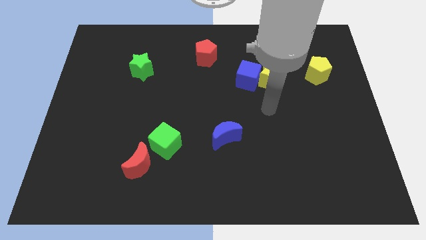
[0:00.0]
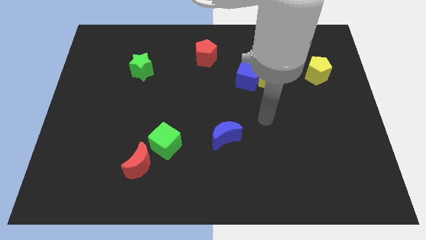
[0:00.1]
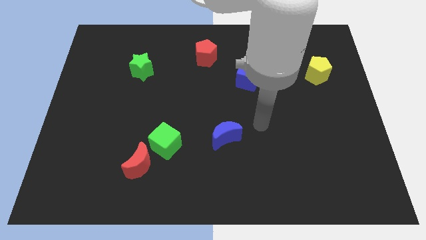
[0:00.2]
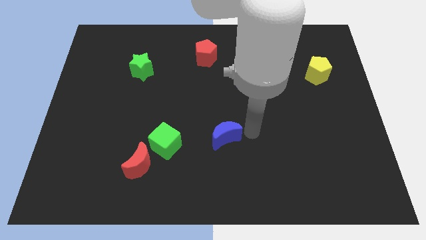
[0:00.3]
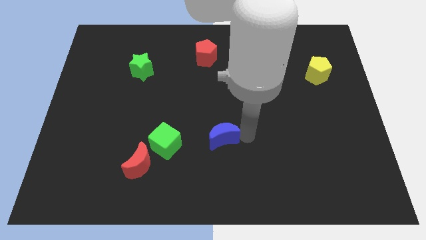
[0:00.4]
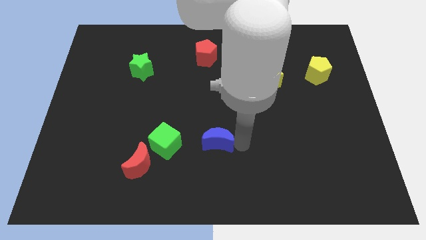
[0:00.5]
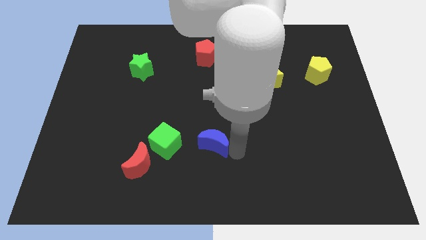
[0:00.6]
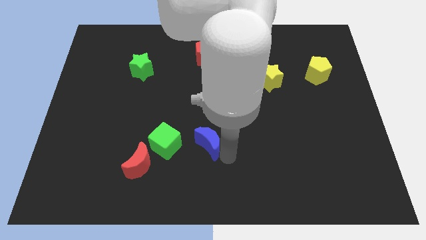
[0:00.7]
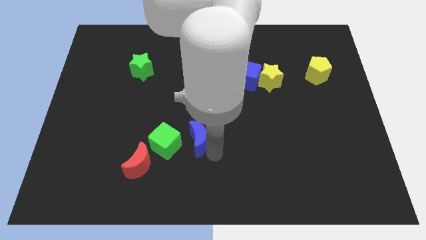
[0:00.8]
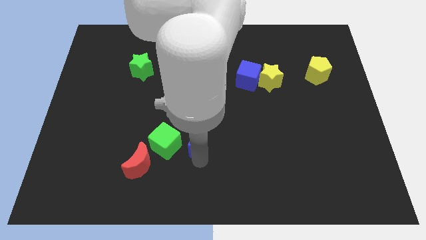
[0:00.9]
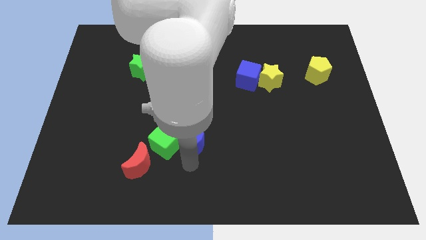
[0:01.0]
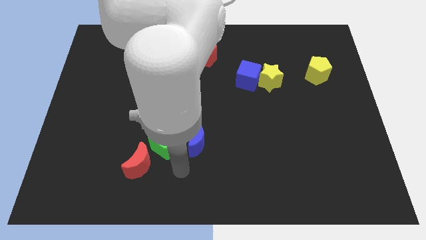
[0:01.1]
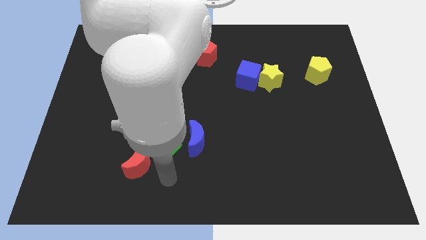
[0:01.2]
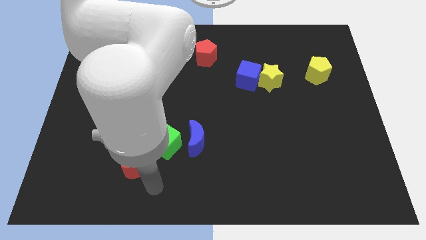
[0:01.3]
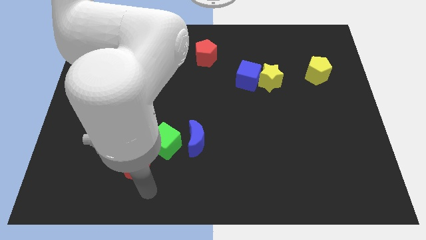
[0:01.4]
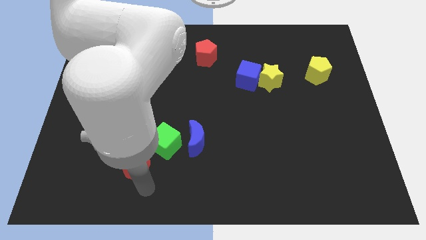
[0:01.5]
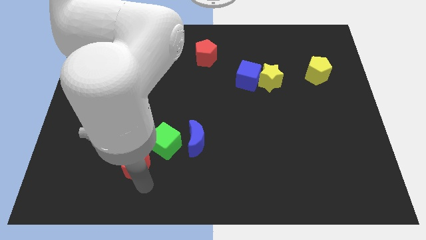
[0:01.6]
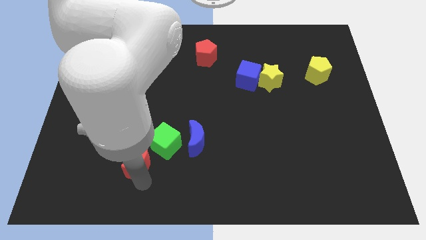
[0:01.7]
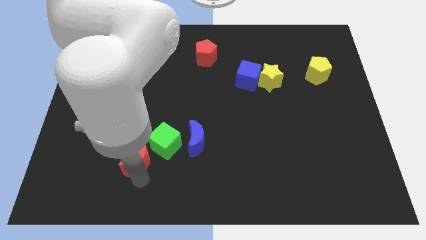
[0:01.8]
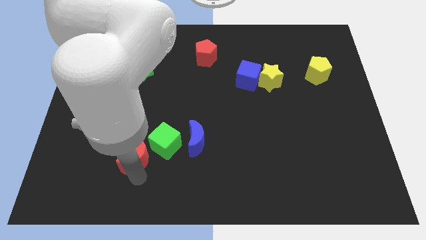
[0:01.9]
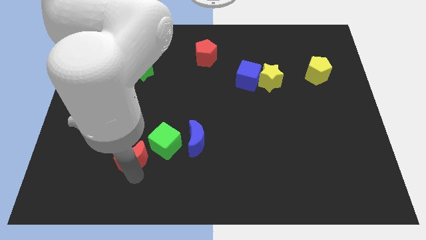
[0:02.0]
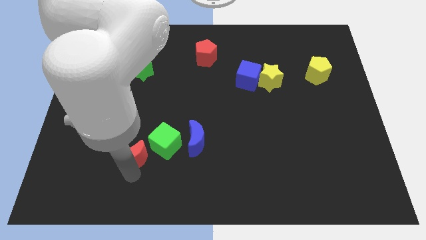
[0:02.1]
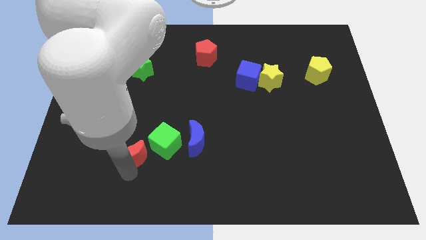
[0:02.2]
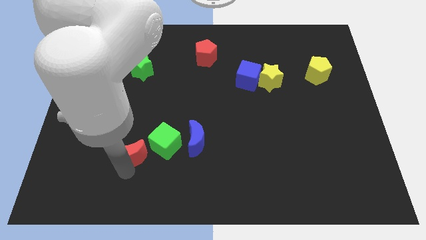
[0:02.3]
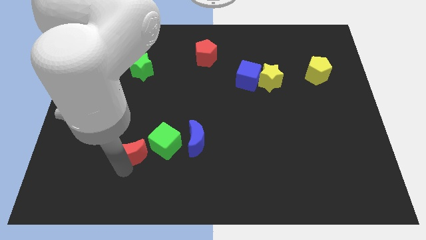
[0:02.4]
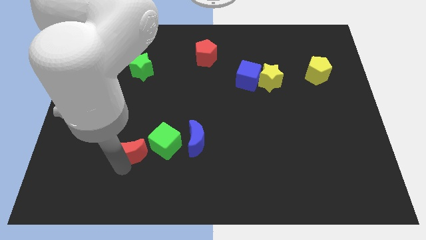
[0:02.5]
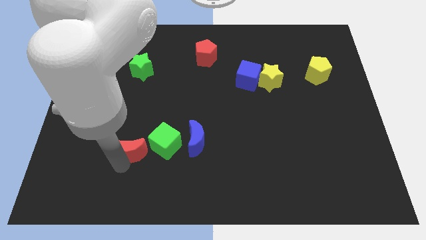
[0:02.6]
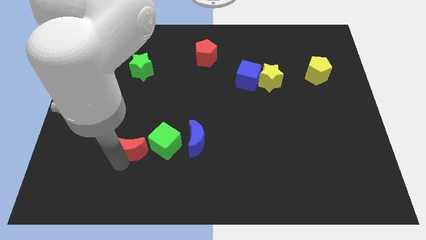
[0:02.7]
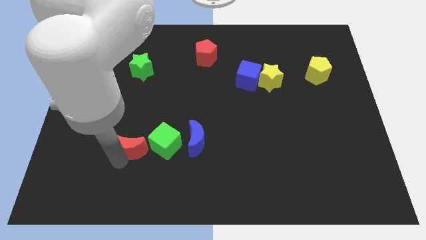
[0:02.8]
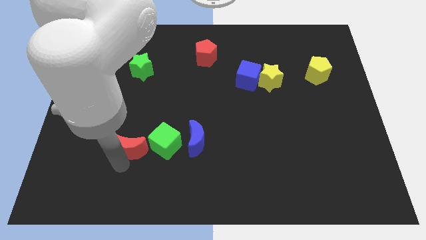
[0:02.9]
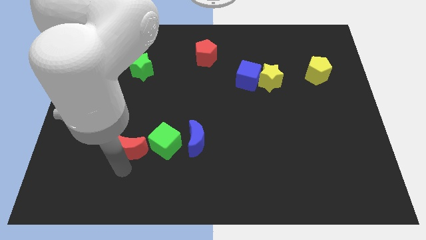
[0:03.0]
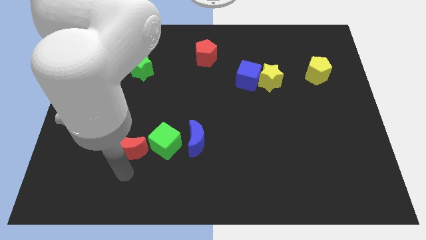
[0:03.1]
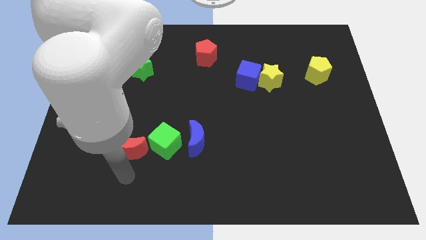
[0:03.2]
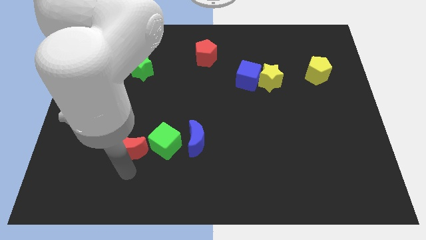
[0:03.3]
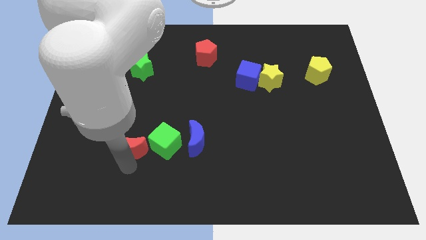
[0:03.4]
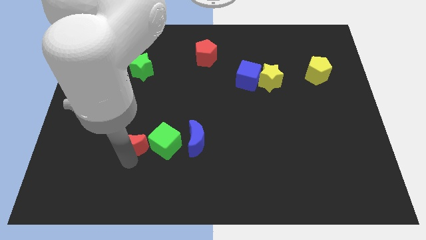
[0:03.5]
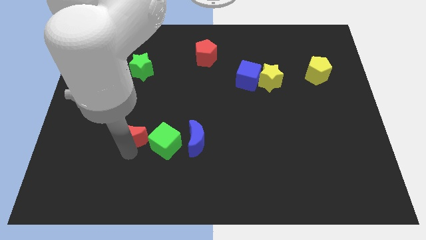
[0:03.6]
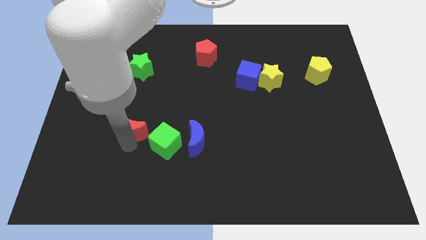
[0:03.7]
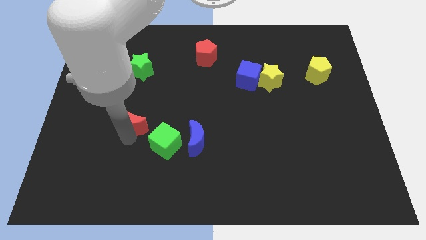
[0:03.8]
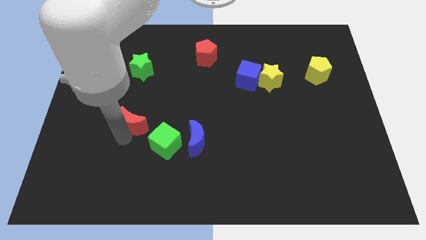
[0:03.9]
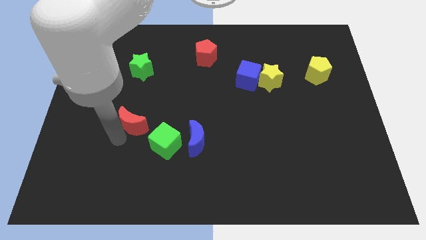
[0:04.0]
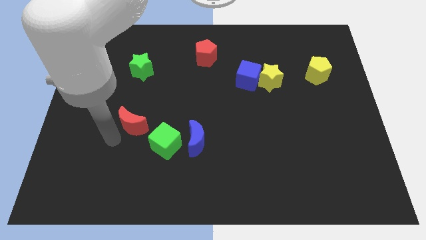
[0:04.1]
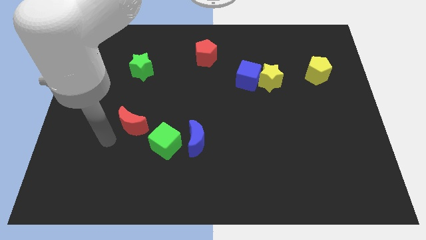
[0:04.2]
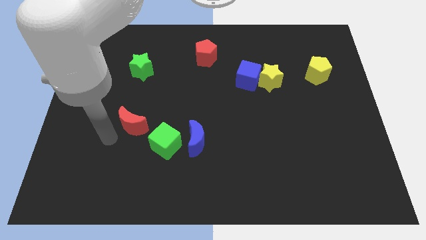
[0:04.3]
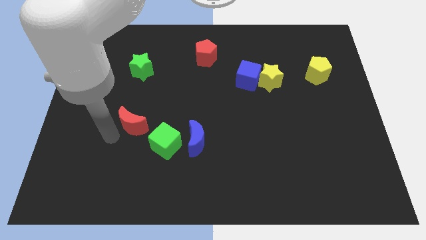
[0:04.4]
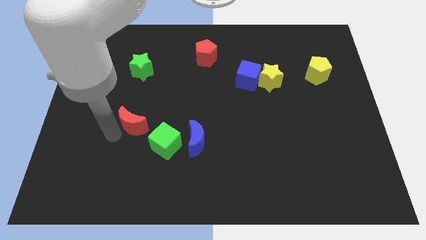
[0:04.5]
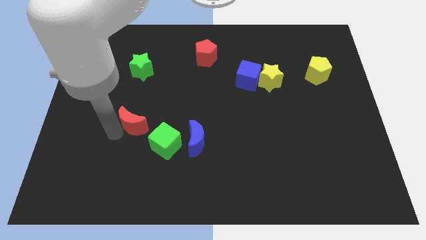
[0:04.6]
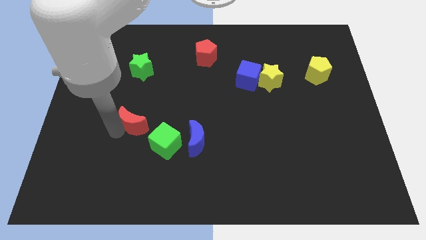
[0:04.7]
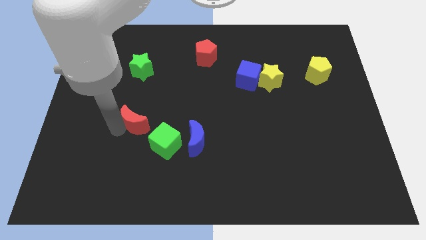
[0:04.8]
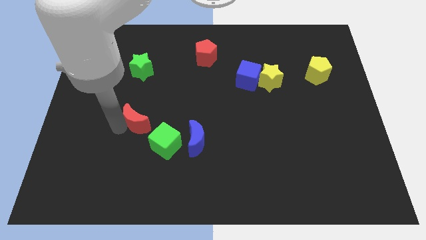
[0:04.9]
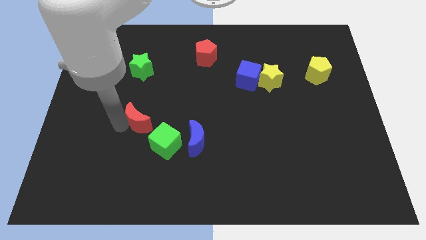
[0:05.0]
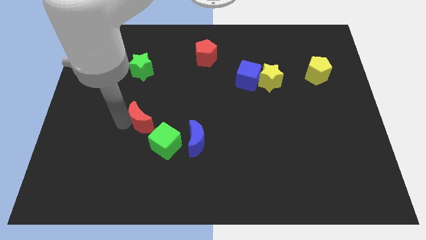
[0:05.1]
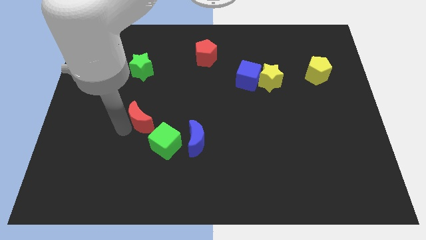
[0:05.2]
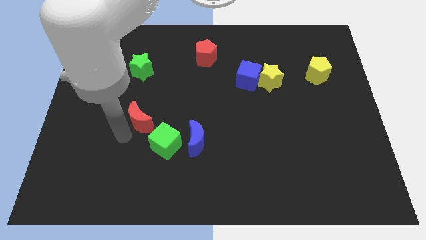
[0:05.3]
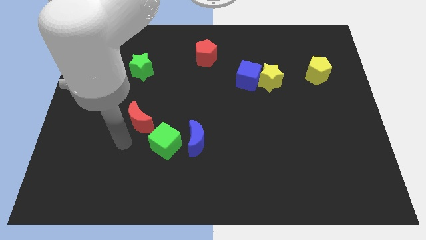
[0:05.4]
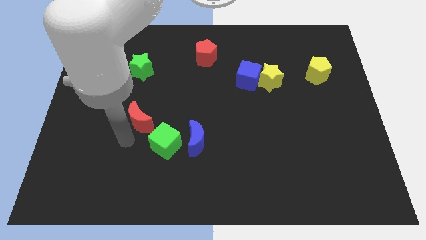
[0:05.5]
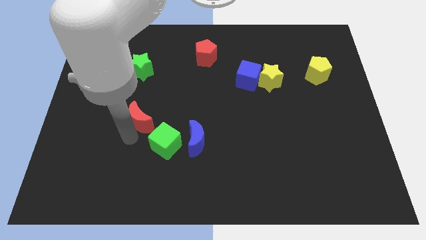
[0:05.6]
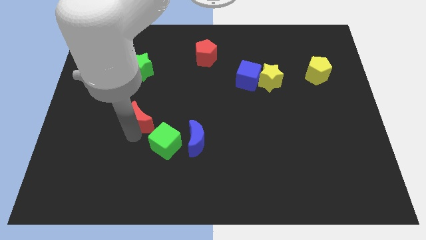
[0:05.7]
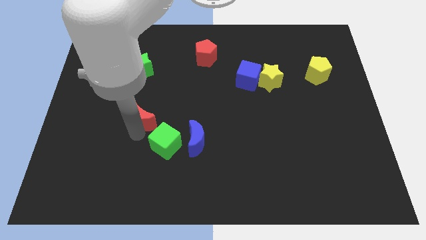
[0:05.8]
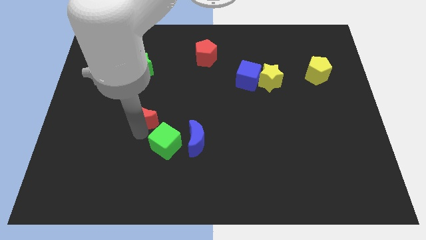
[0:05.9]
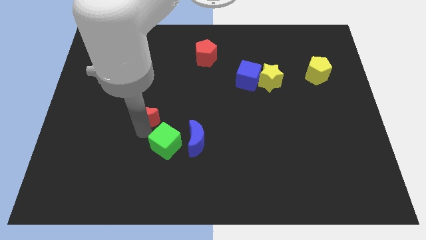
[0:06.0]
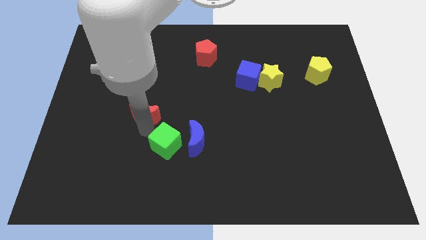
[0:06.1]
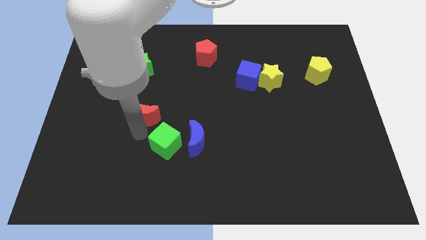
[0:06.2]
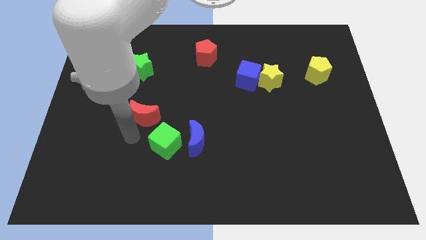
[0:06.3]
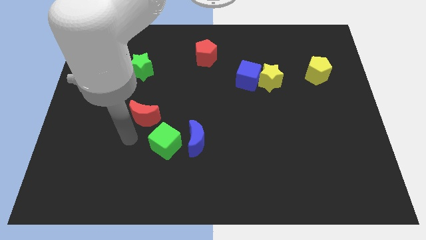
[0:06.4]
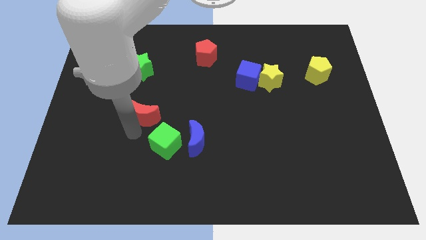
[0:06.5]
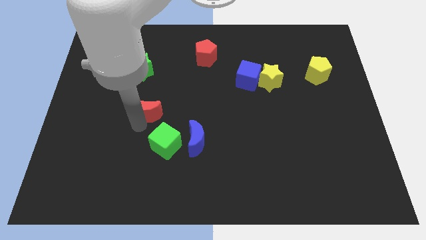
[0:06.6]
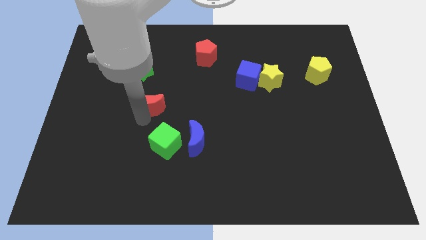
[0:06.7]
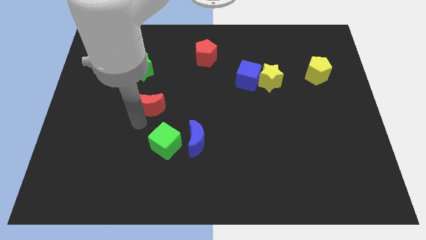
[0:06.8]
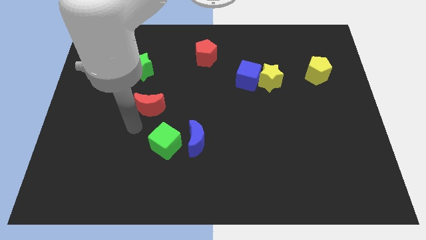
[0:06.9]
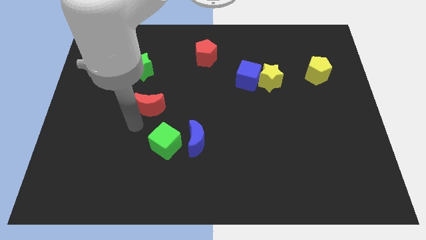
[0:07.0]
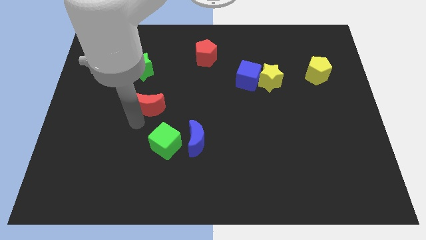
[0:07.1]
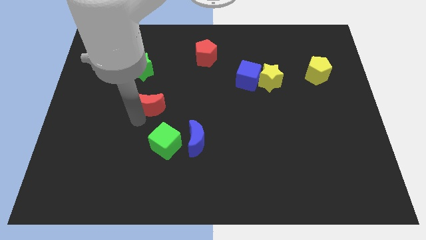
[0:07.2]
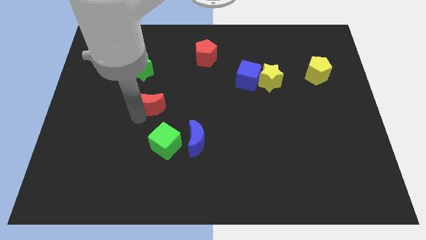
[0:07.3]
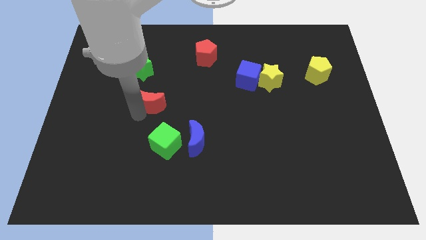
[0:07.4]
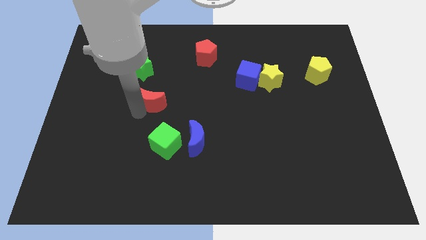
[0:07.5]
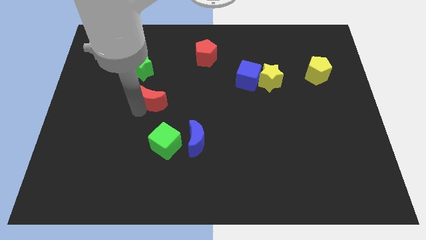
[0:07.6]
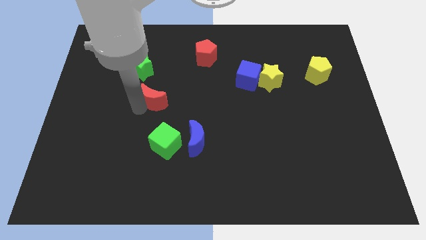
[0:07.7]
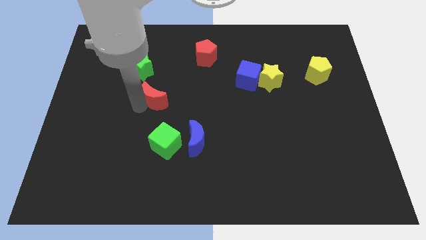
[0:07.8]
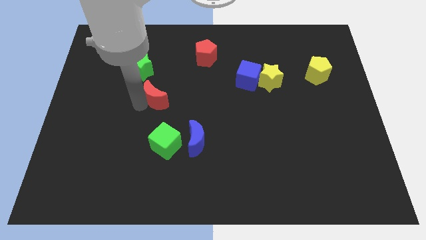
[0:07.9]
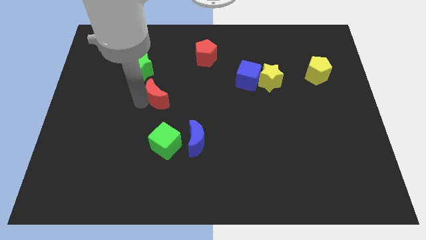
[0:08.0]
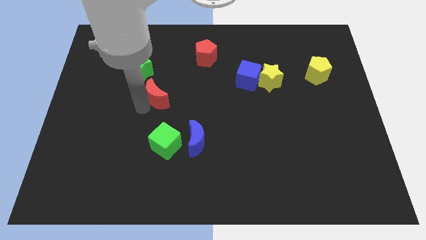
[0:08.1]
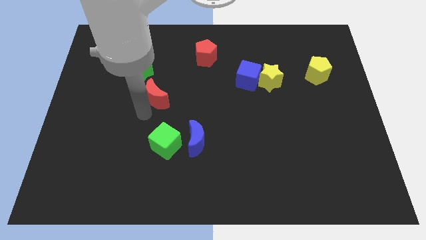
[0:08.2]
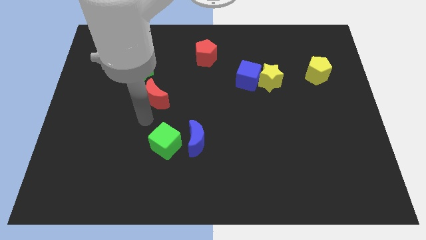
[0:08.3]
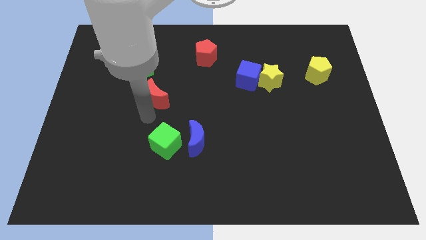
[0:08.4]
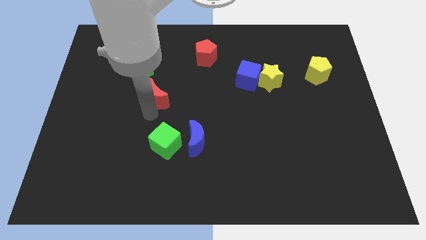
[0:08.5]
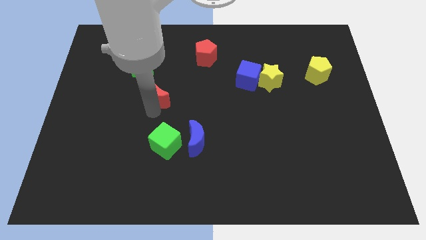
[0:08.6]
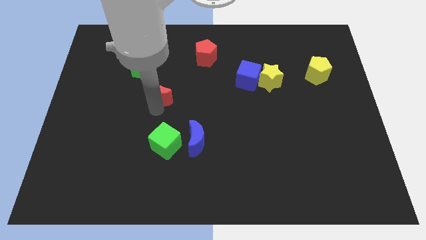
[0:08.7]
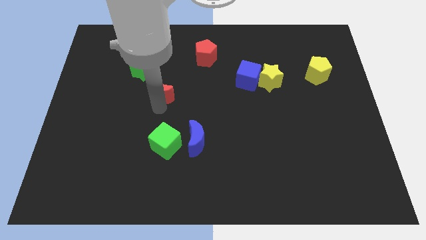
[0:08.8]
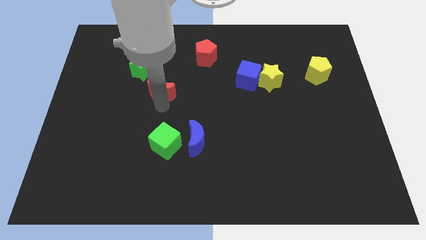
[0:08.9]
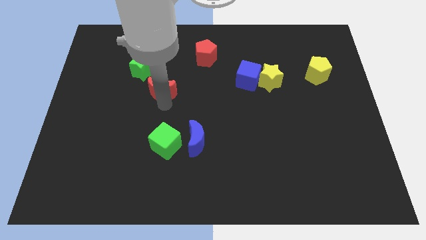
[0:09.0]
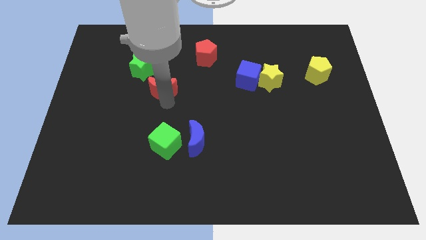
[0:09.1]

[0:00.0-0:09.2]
slide the red moon upwards
